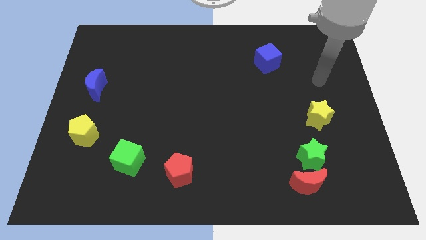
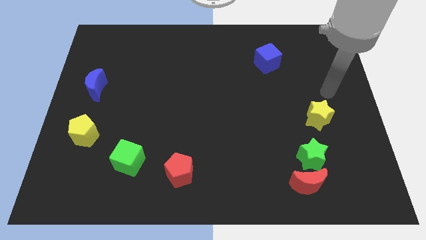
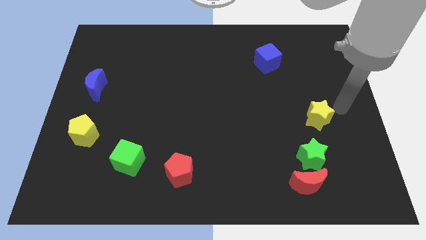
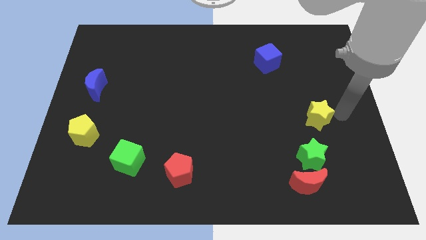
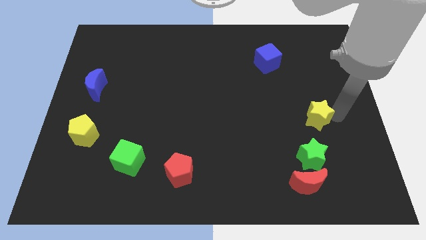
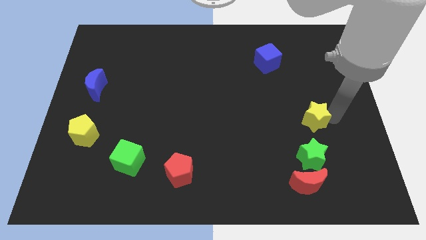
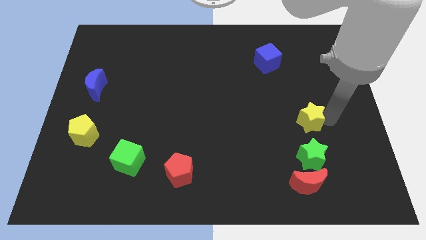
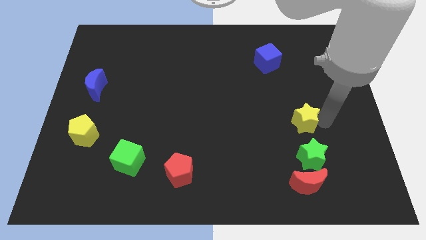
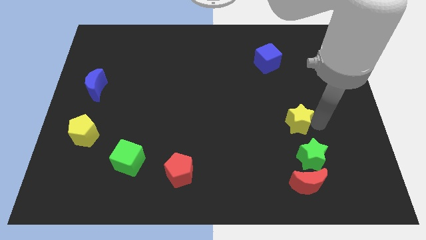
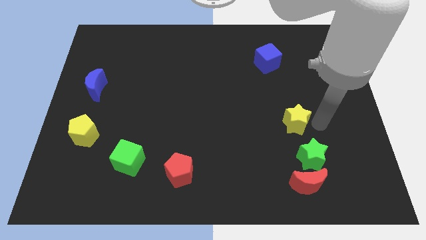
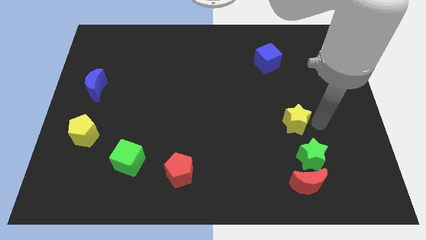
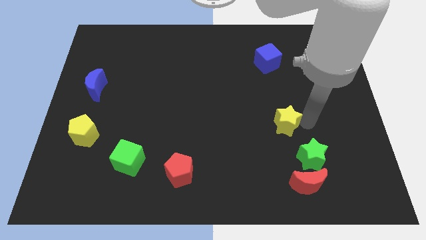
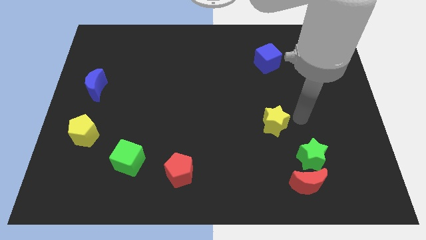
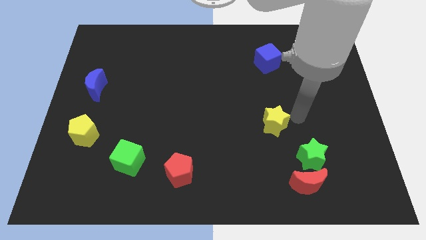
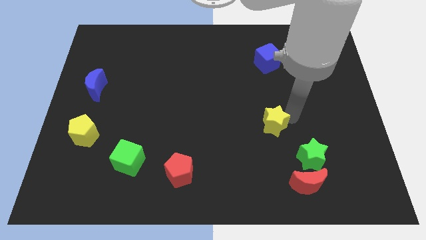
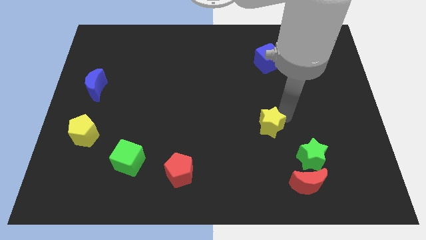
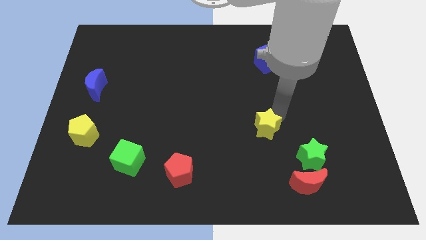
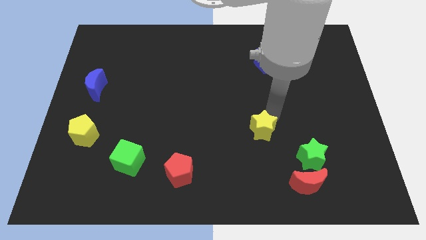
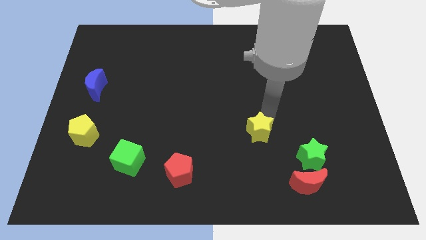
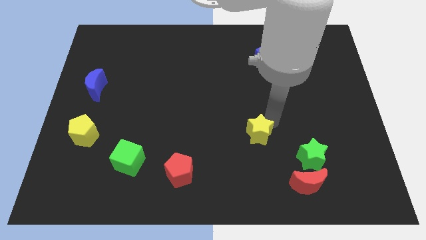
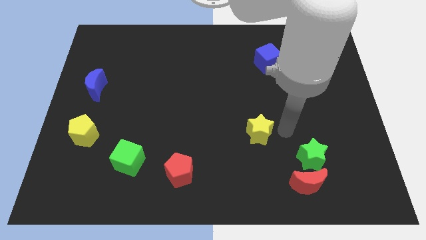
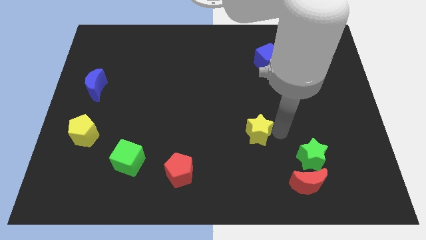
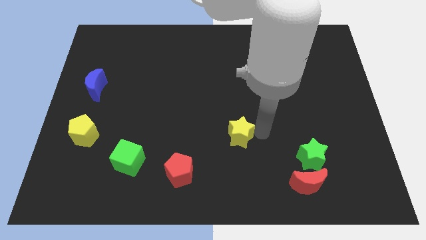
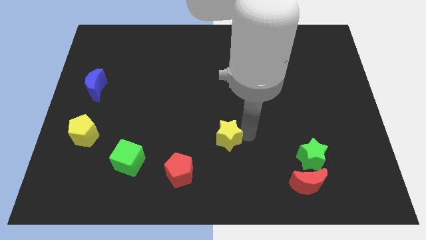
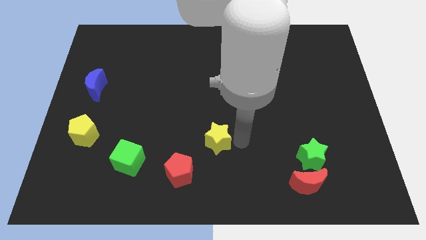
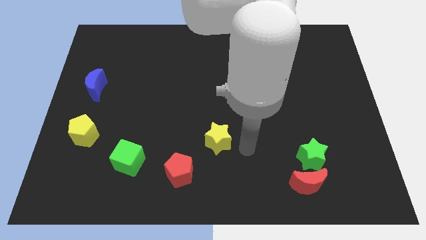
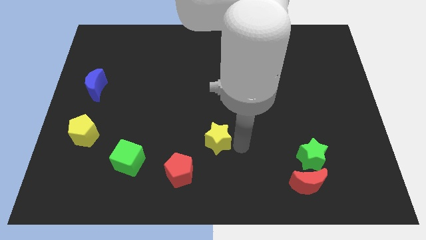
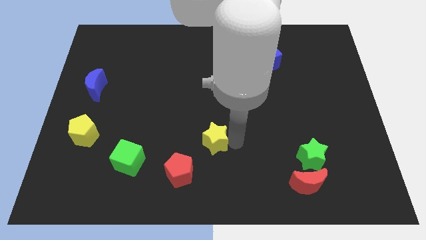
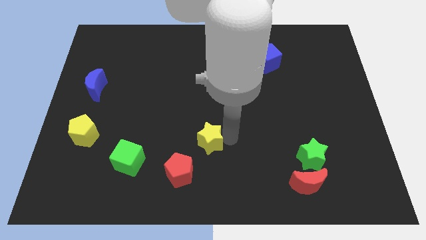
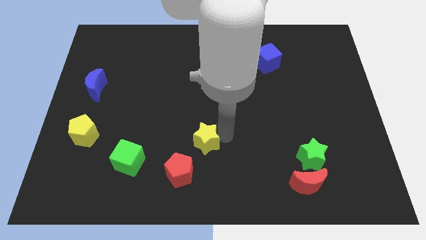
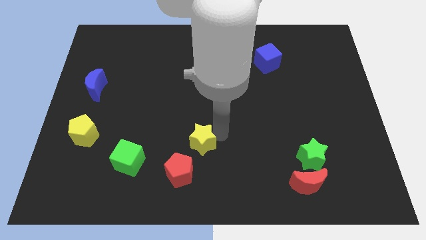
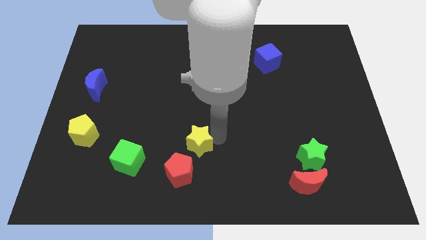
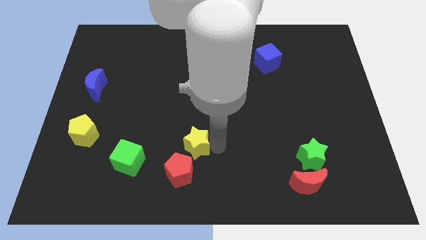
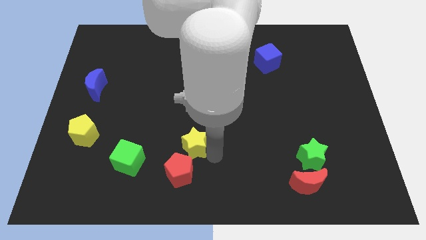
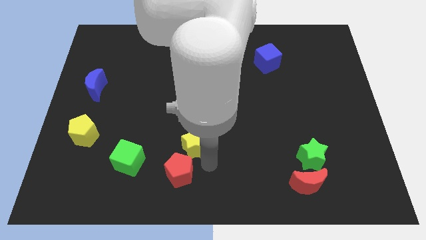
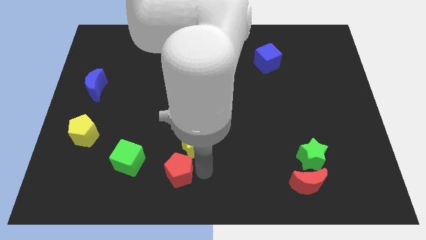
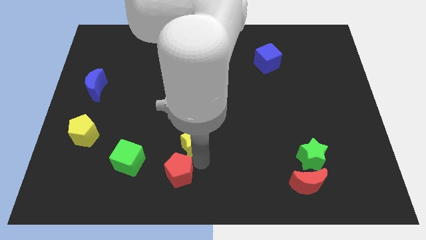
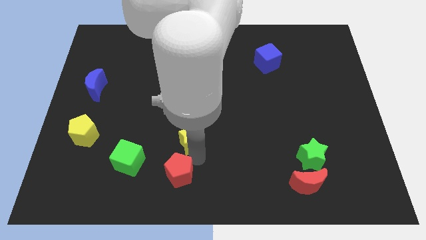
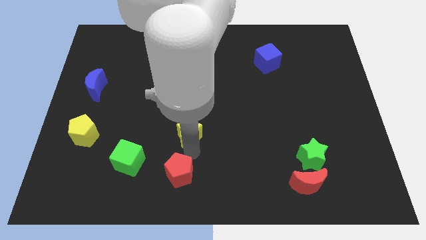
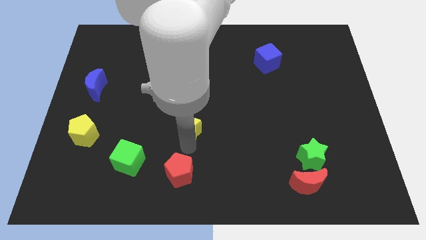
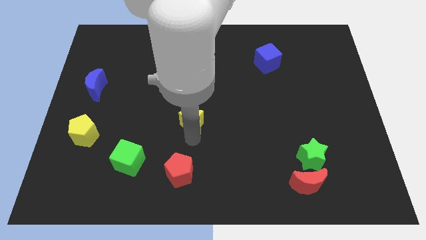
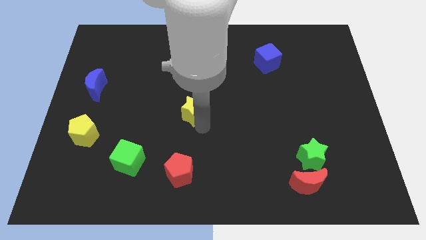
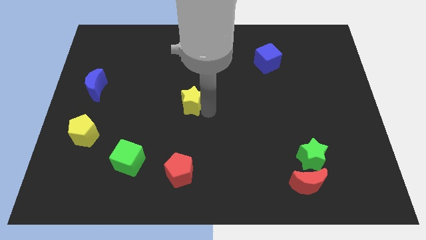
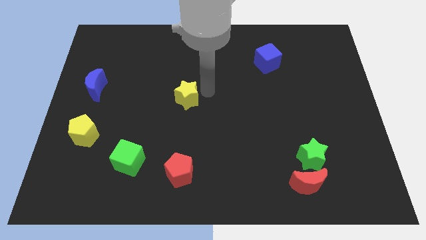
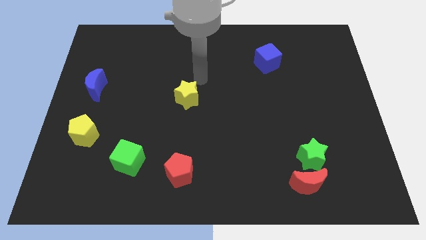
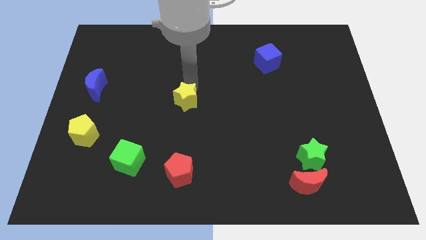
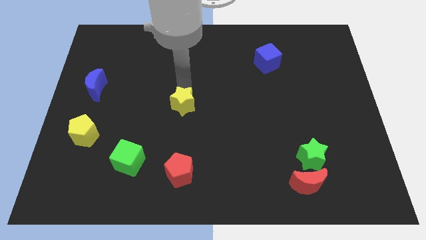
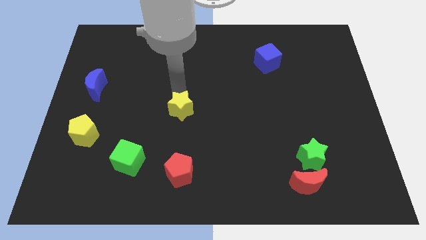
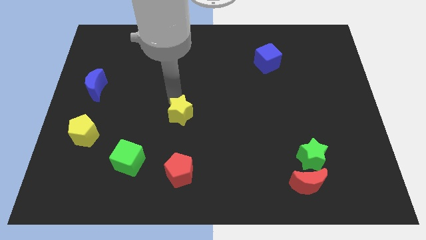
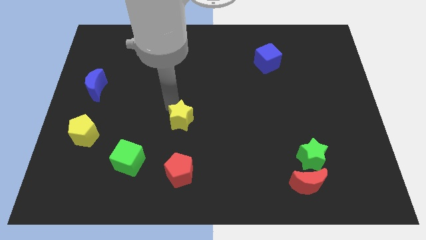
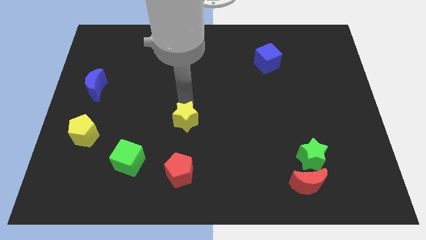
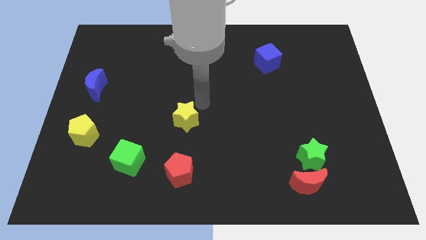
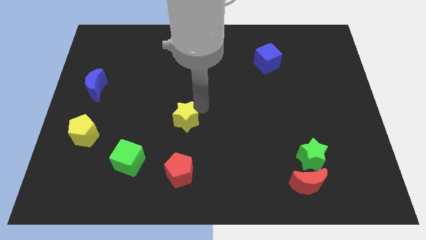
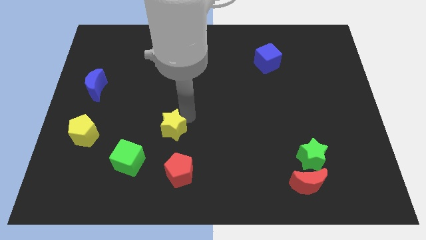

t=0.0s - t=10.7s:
slide the yellow star to the top right of the green cube

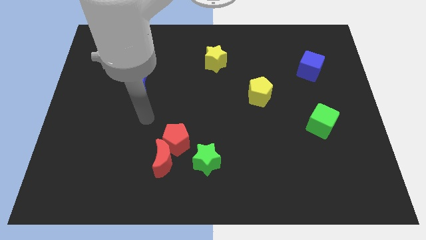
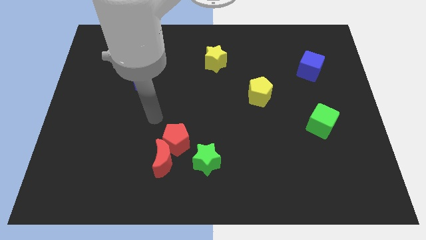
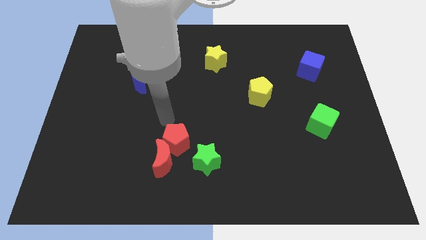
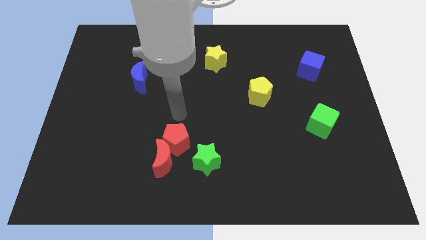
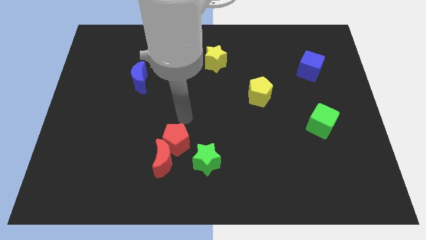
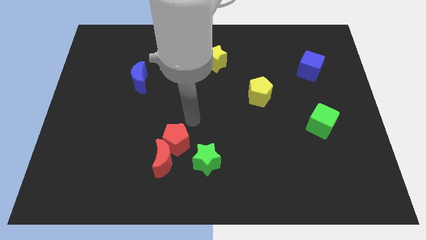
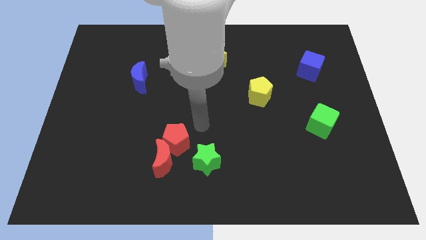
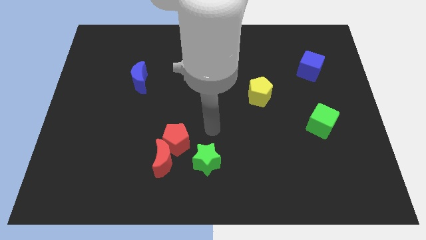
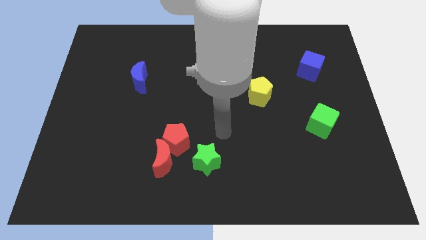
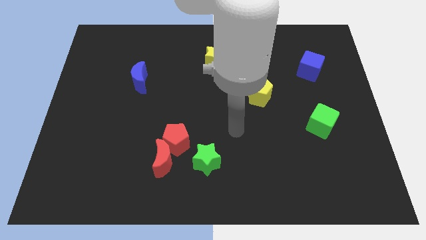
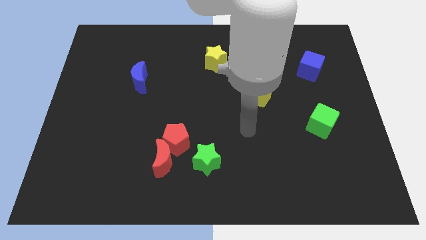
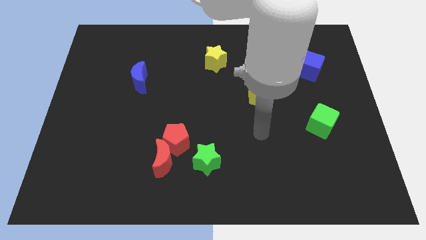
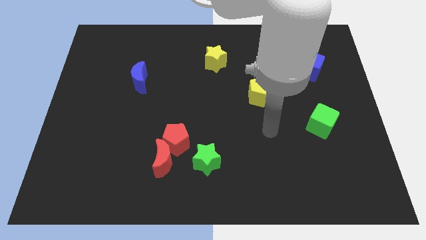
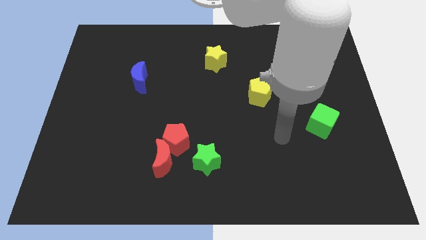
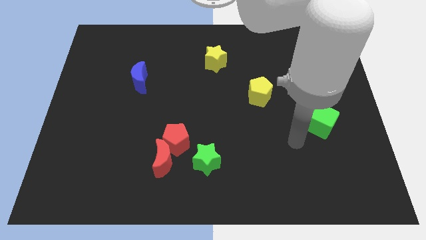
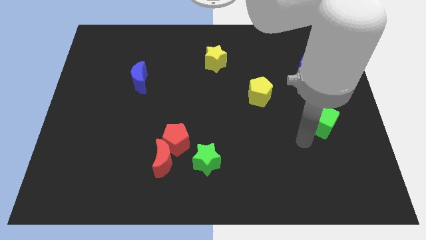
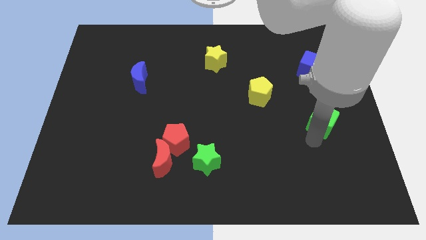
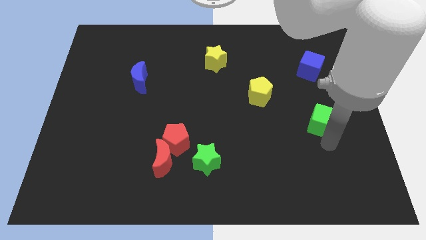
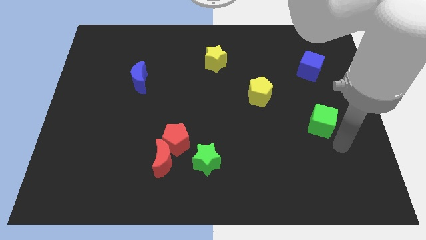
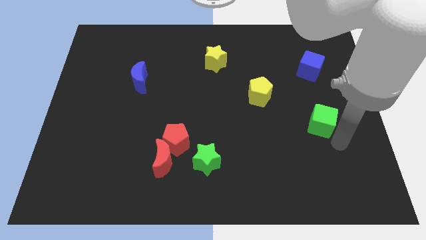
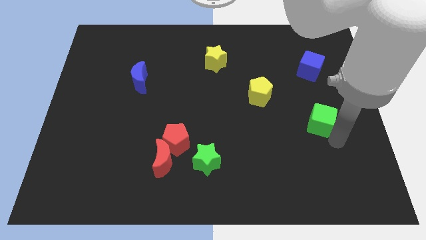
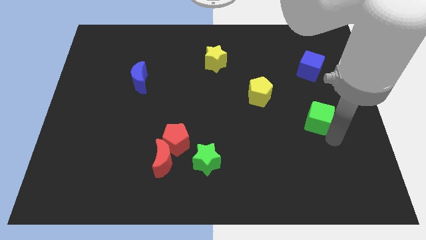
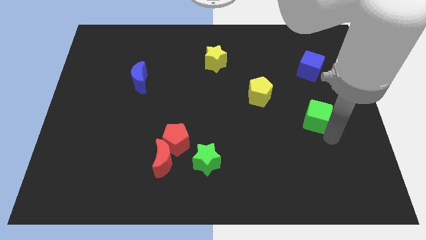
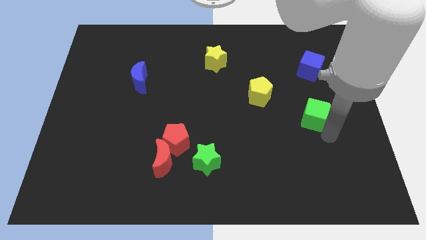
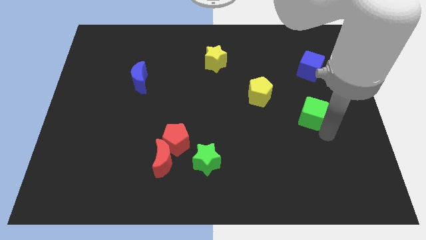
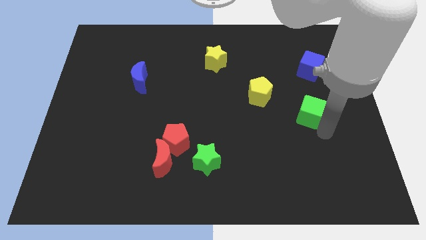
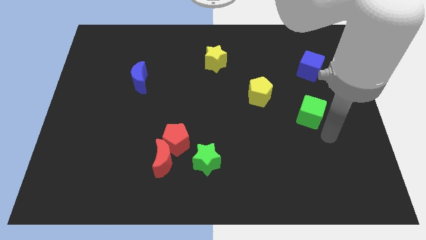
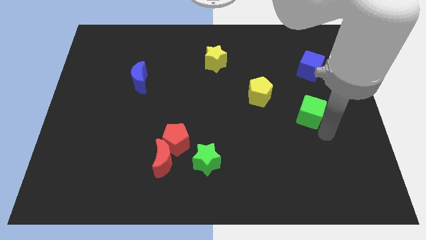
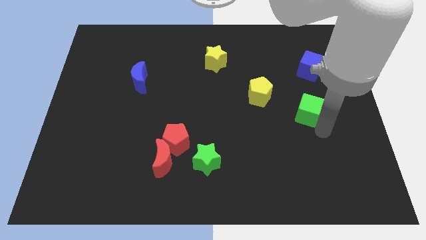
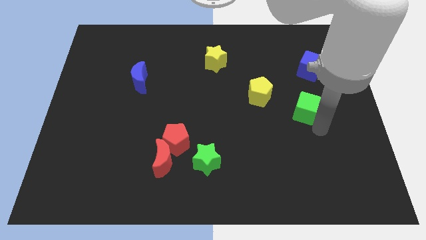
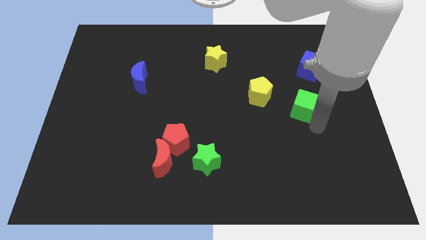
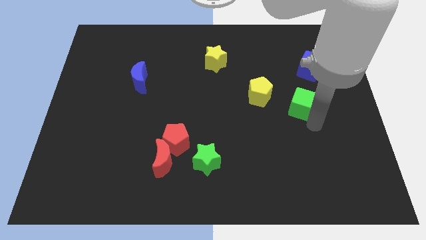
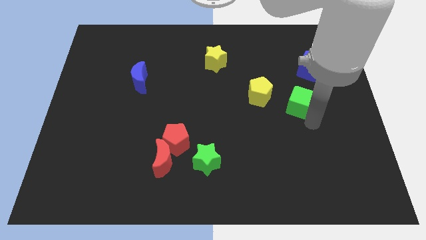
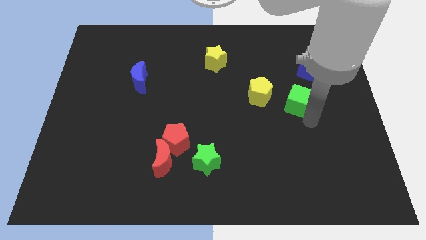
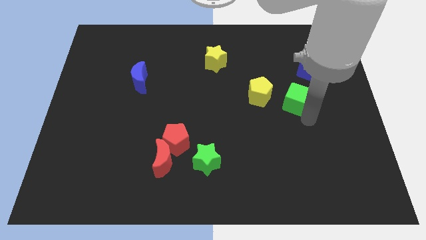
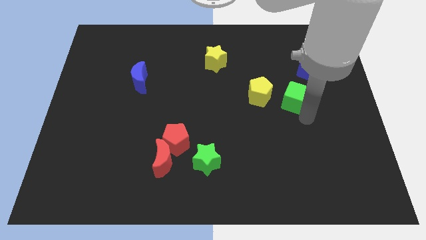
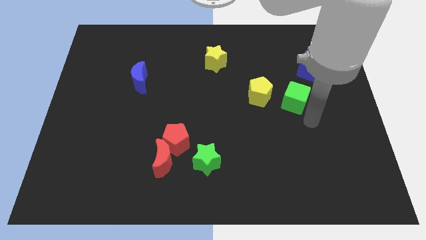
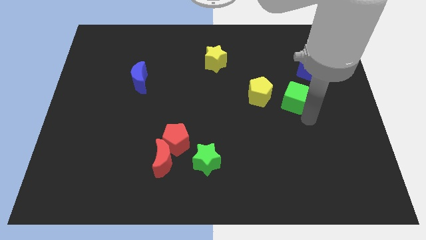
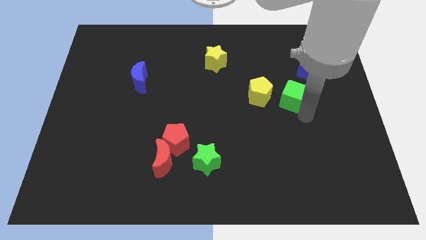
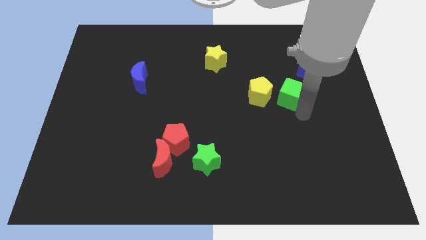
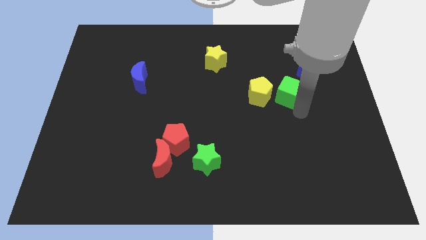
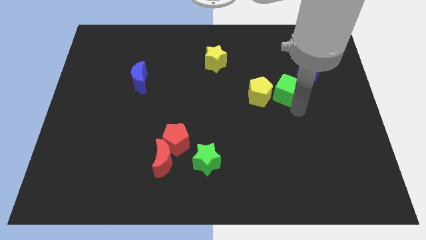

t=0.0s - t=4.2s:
move the green cube to the top right of the yellow pentagon
